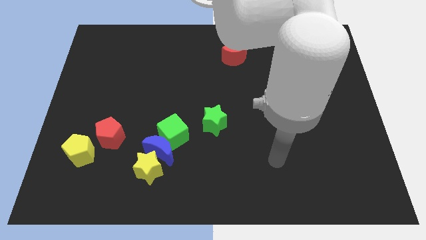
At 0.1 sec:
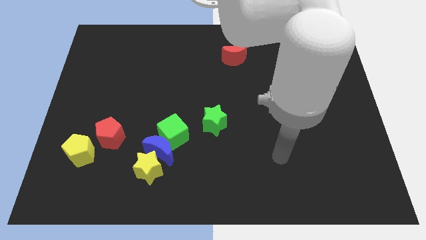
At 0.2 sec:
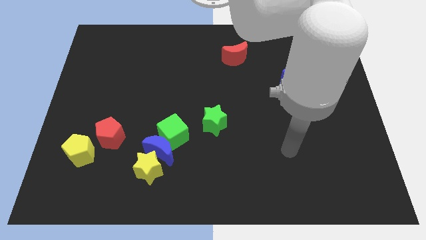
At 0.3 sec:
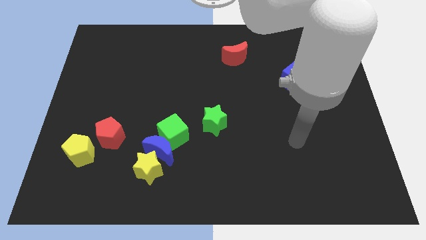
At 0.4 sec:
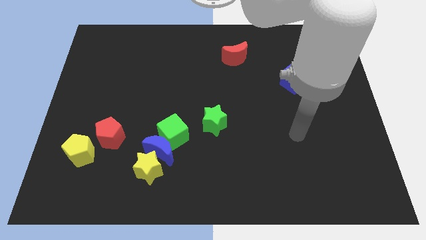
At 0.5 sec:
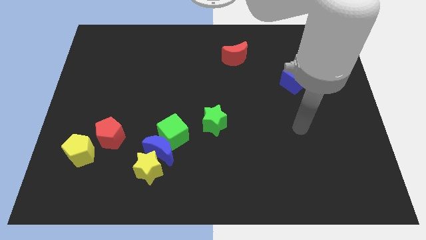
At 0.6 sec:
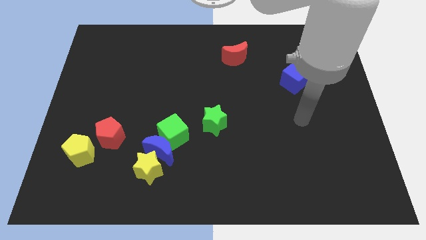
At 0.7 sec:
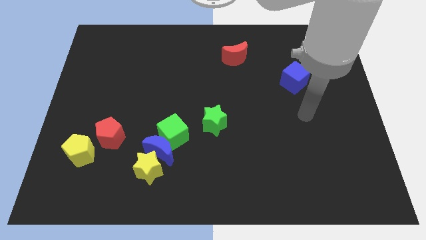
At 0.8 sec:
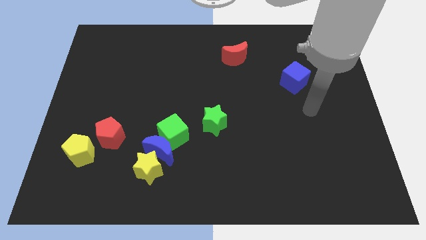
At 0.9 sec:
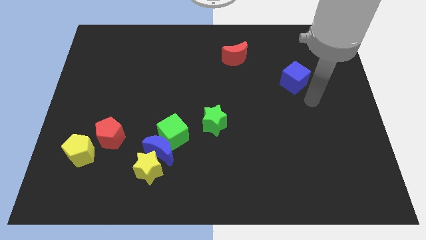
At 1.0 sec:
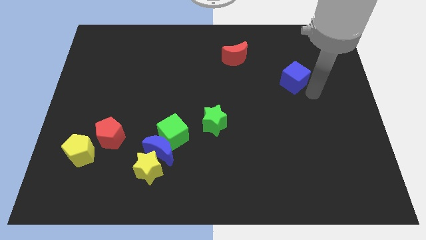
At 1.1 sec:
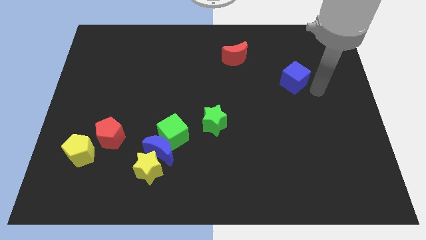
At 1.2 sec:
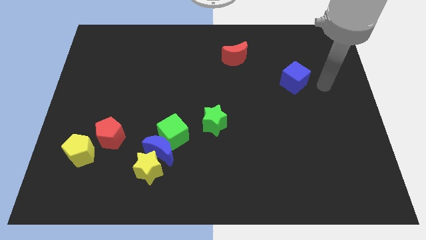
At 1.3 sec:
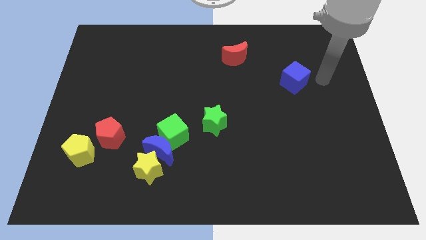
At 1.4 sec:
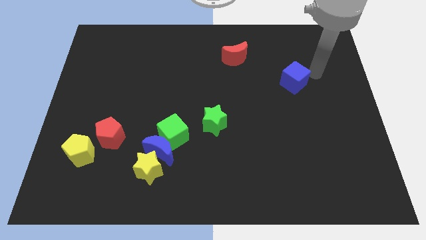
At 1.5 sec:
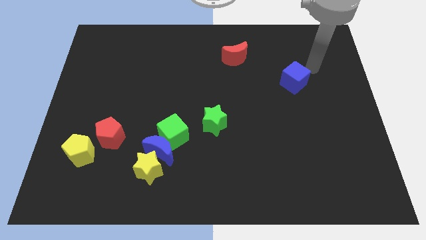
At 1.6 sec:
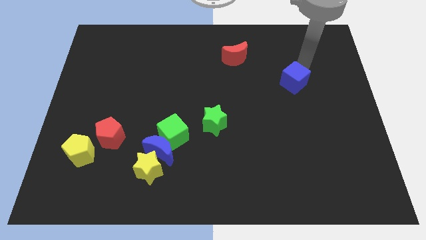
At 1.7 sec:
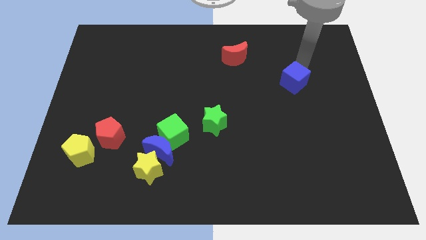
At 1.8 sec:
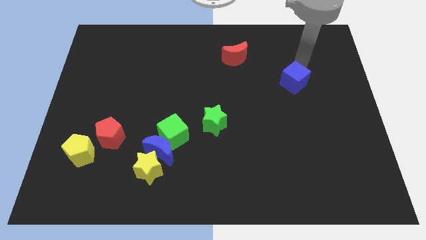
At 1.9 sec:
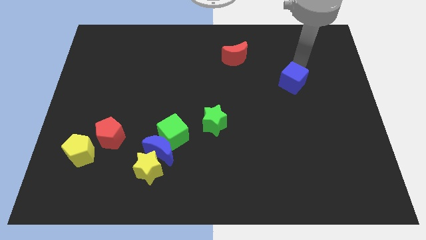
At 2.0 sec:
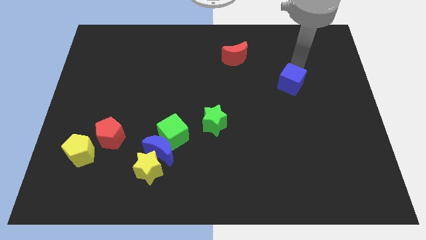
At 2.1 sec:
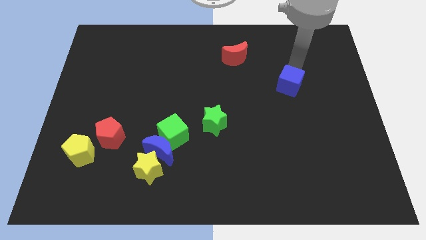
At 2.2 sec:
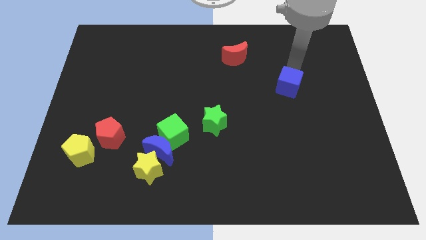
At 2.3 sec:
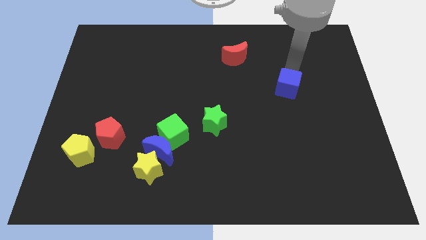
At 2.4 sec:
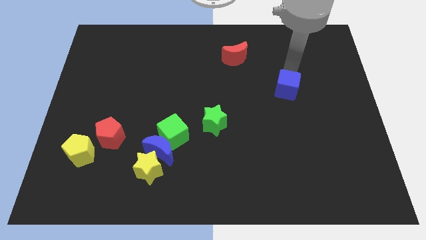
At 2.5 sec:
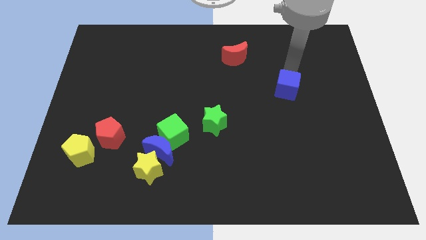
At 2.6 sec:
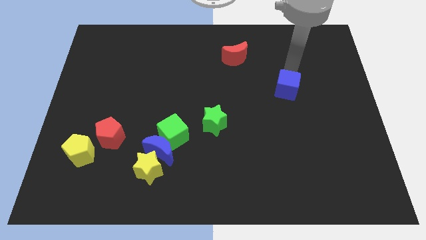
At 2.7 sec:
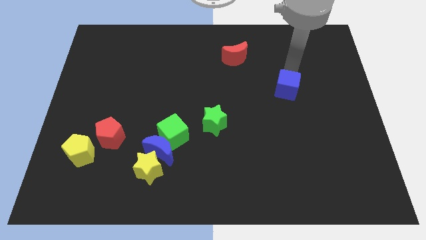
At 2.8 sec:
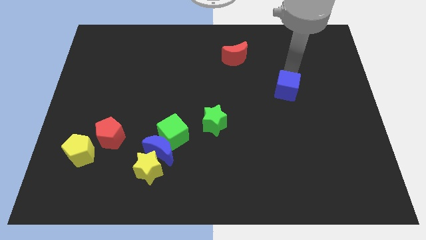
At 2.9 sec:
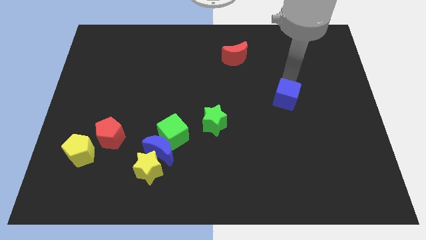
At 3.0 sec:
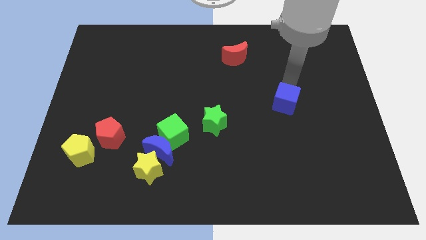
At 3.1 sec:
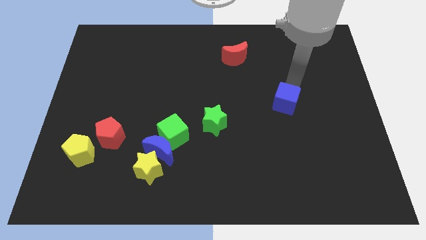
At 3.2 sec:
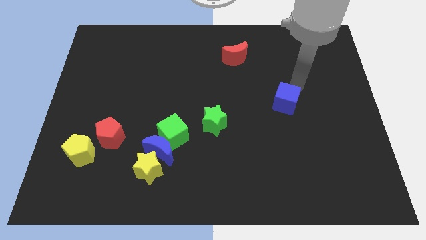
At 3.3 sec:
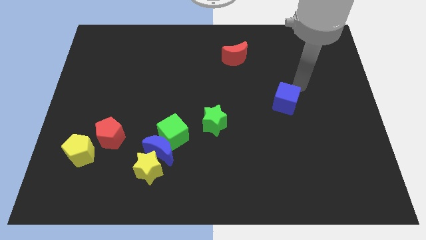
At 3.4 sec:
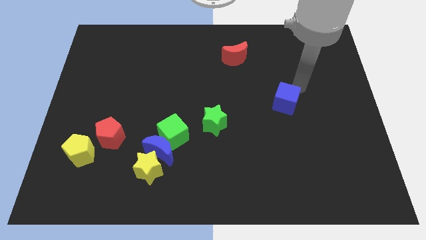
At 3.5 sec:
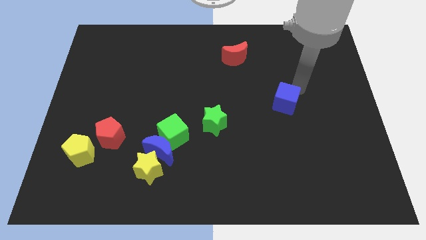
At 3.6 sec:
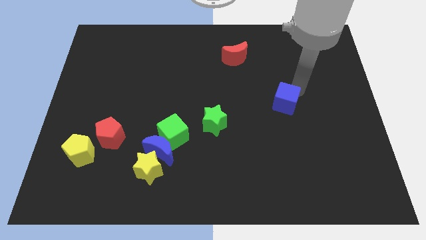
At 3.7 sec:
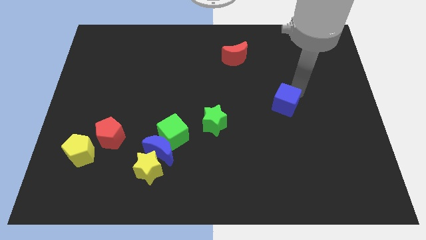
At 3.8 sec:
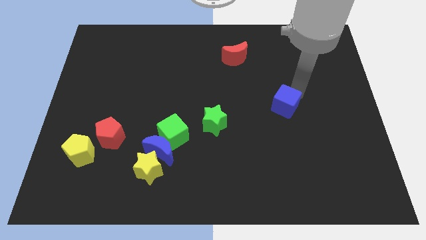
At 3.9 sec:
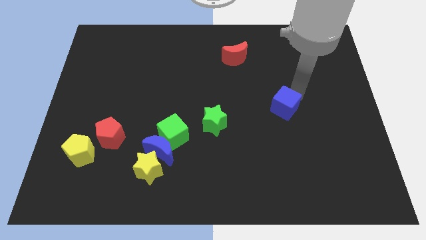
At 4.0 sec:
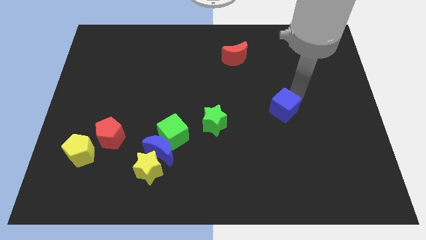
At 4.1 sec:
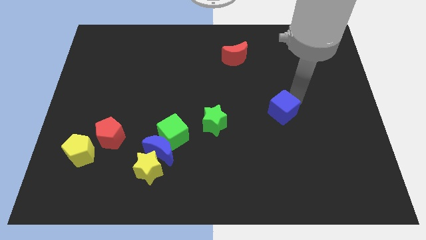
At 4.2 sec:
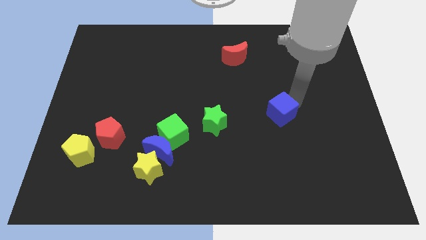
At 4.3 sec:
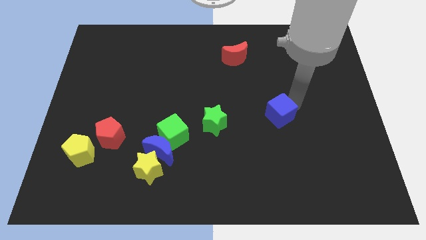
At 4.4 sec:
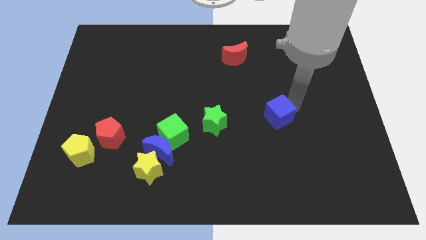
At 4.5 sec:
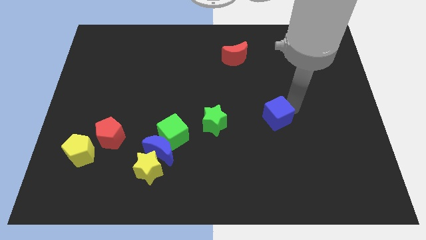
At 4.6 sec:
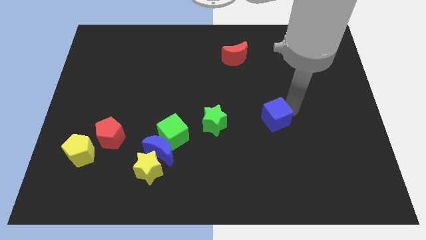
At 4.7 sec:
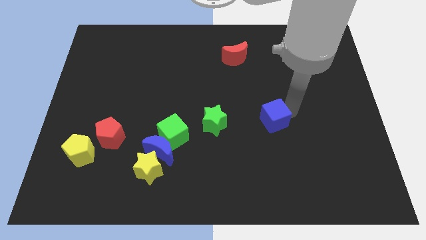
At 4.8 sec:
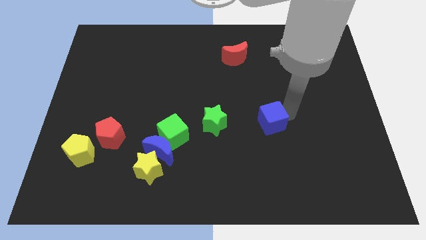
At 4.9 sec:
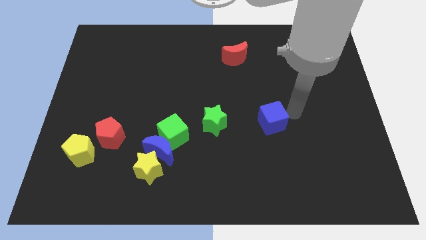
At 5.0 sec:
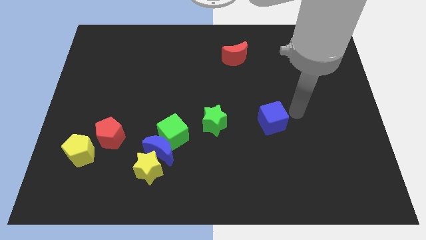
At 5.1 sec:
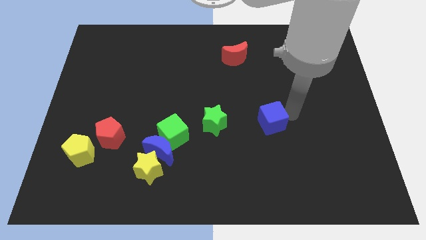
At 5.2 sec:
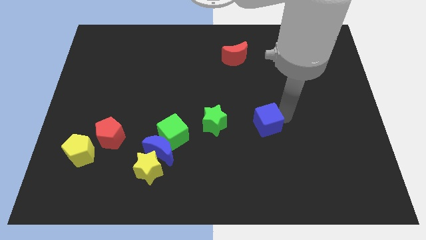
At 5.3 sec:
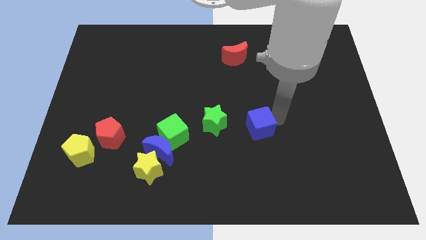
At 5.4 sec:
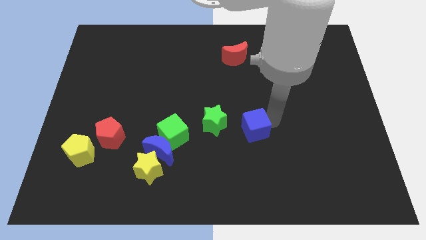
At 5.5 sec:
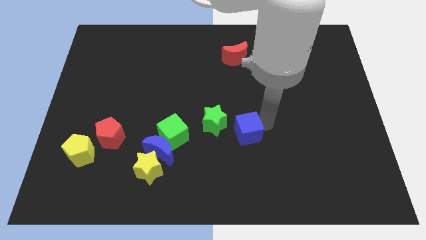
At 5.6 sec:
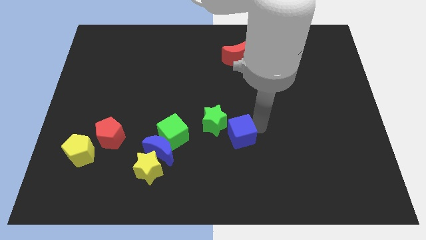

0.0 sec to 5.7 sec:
push the blue cube down and left diagonally

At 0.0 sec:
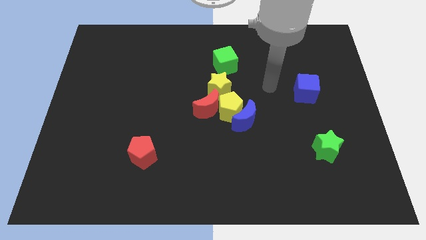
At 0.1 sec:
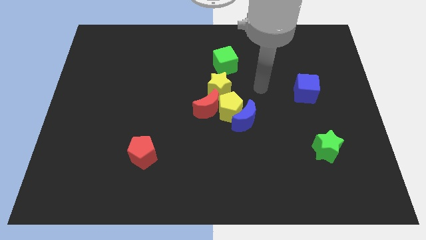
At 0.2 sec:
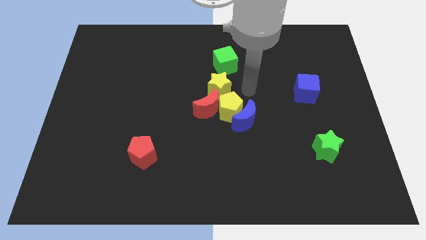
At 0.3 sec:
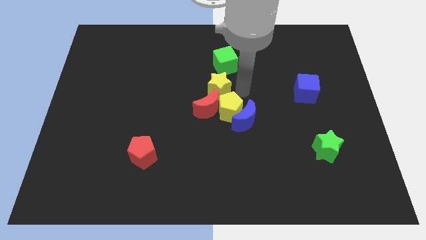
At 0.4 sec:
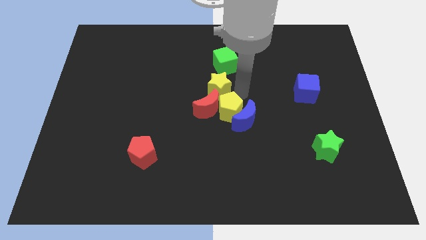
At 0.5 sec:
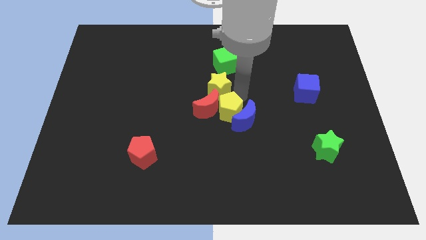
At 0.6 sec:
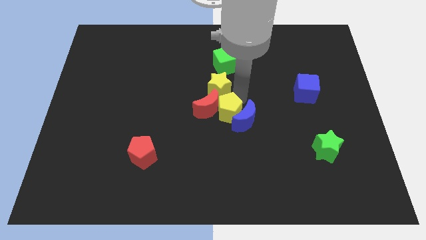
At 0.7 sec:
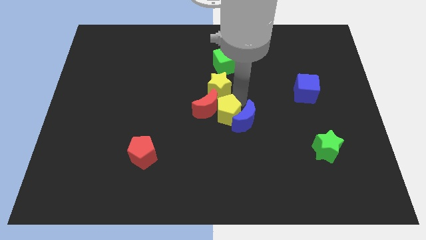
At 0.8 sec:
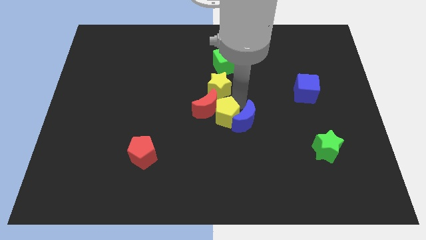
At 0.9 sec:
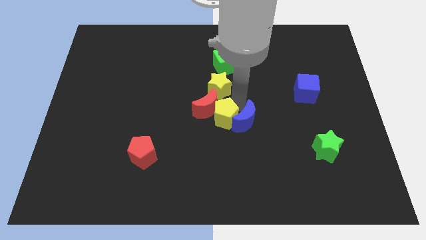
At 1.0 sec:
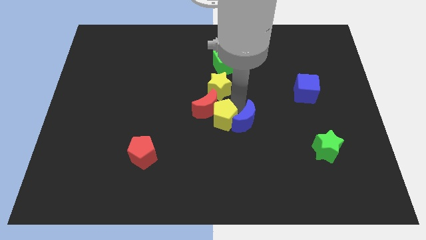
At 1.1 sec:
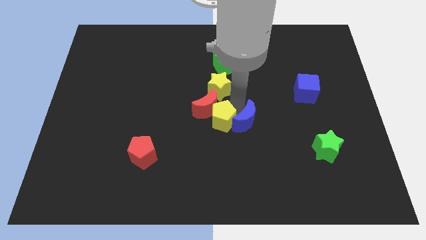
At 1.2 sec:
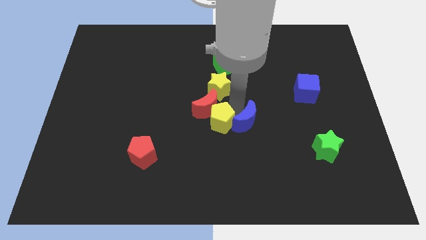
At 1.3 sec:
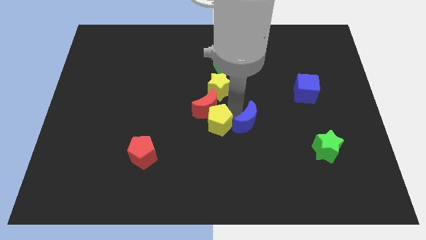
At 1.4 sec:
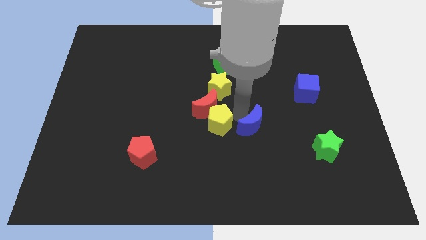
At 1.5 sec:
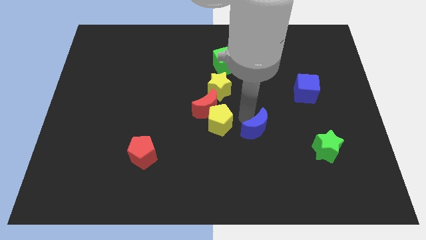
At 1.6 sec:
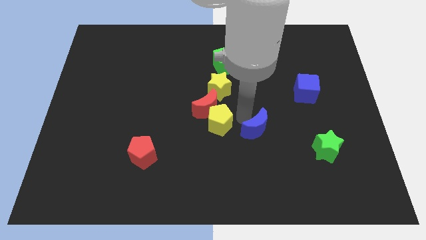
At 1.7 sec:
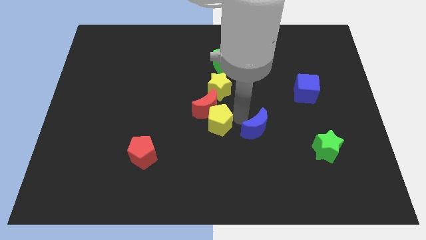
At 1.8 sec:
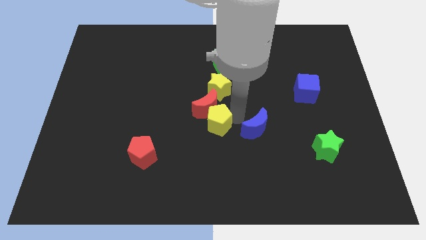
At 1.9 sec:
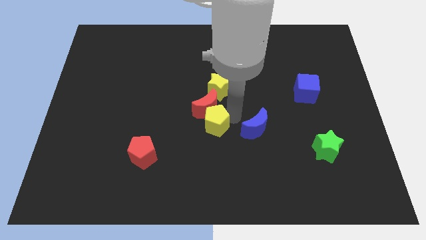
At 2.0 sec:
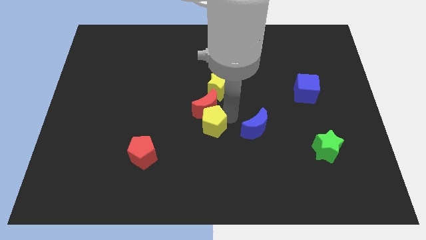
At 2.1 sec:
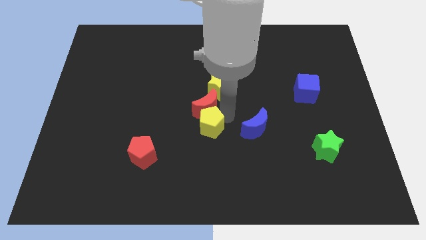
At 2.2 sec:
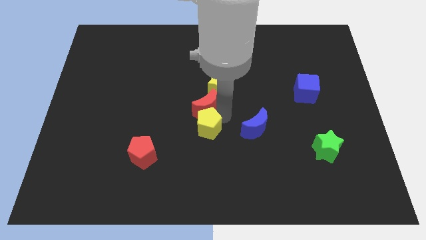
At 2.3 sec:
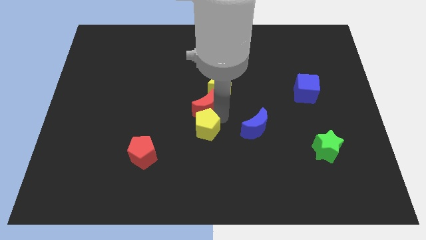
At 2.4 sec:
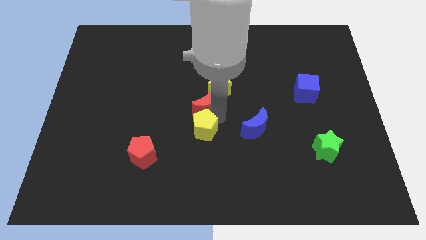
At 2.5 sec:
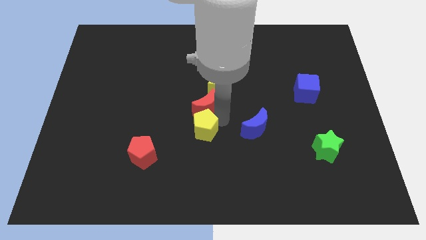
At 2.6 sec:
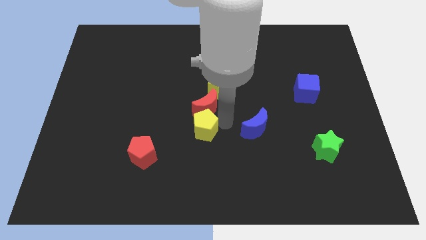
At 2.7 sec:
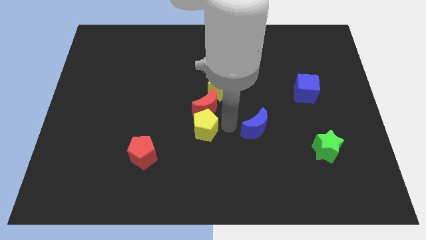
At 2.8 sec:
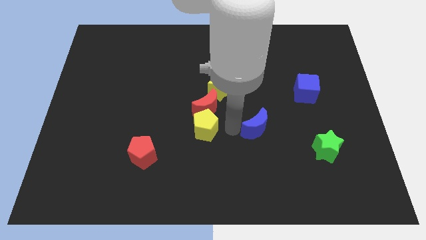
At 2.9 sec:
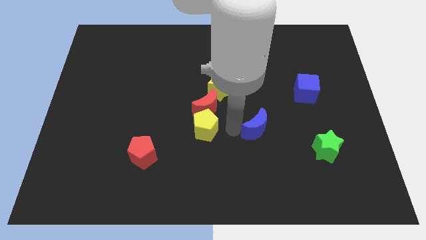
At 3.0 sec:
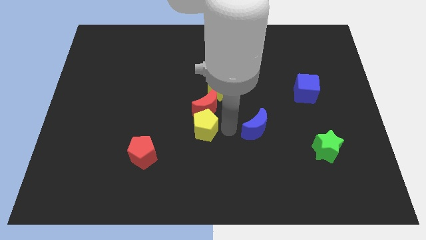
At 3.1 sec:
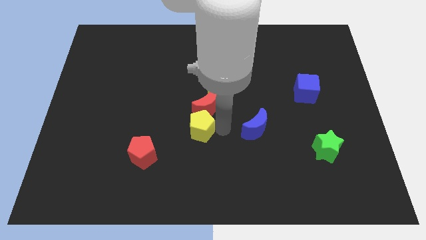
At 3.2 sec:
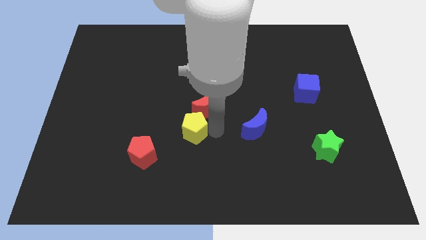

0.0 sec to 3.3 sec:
slide the yellow pentagon left slightly
